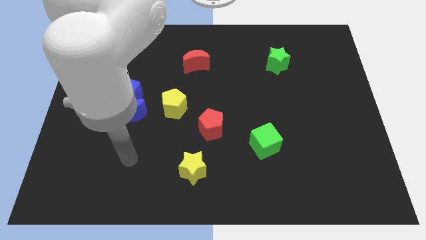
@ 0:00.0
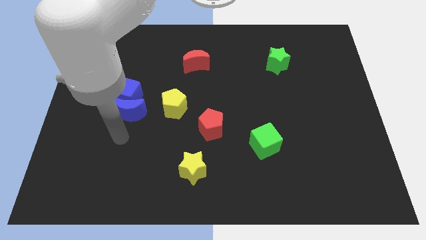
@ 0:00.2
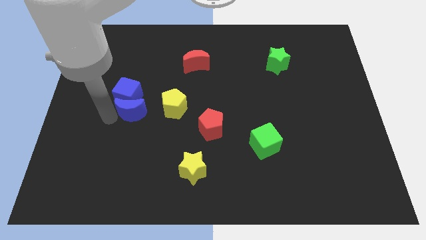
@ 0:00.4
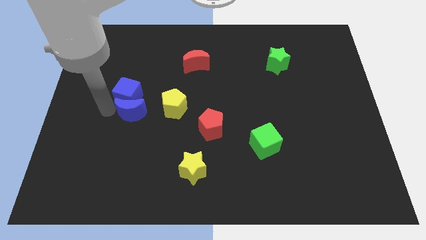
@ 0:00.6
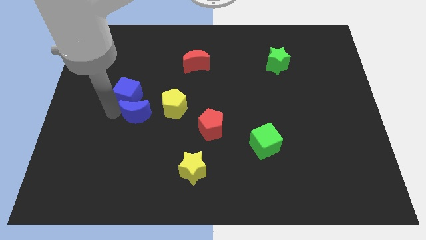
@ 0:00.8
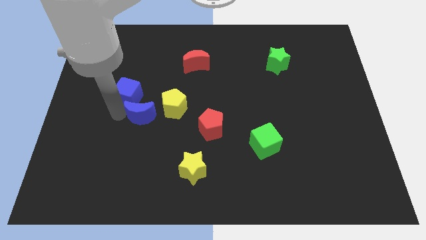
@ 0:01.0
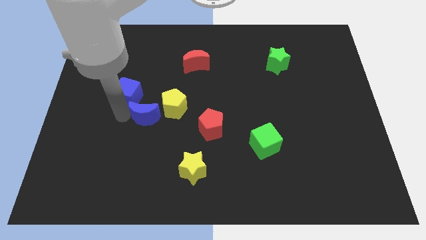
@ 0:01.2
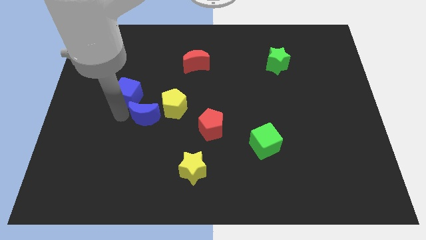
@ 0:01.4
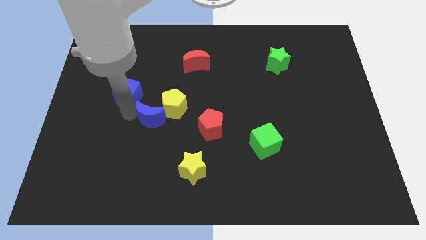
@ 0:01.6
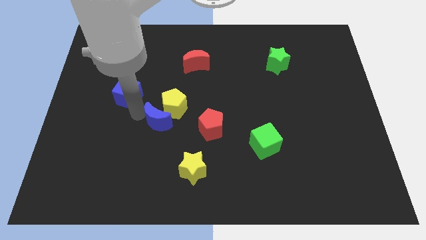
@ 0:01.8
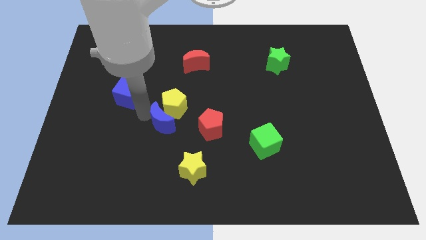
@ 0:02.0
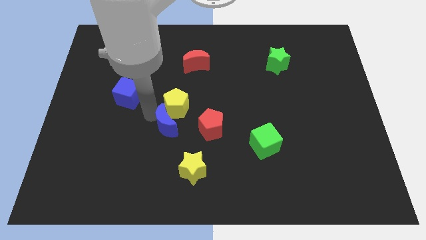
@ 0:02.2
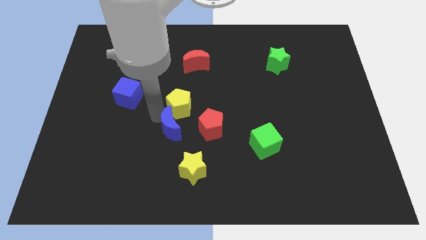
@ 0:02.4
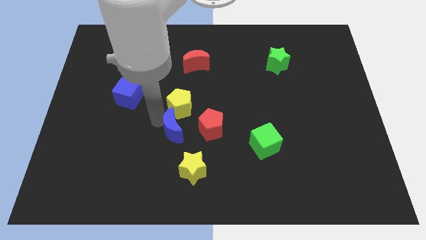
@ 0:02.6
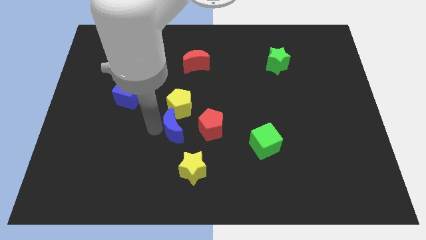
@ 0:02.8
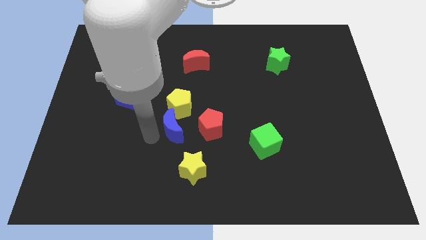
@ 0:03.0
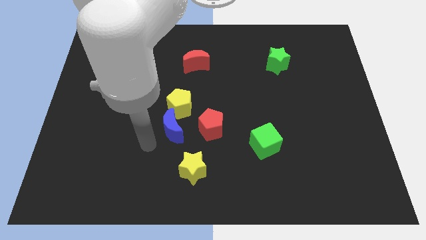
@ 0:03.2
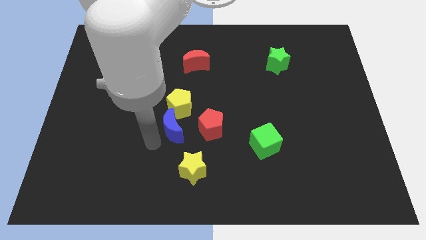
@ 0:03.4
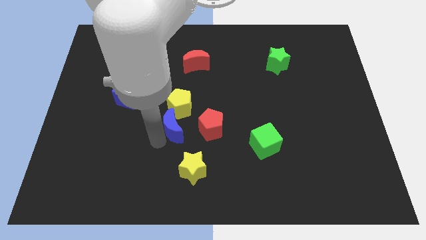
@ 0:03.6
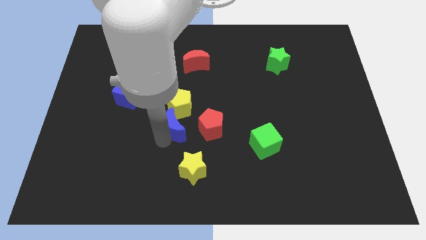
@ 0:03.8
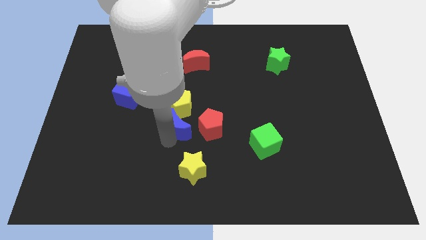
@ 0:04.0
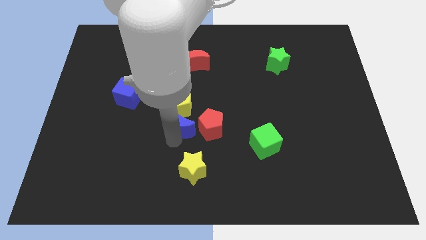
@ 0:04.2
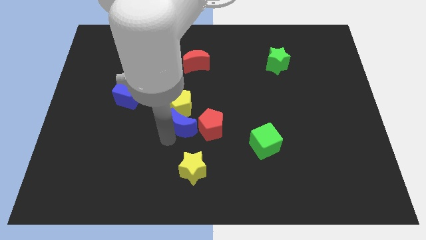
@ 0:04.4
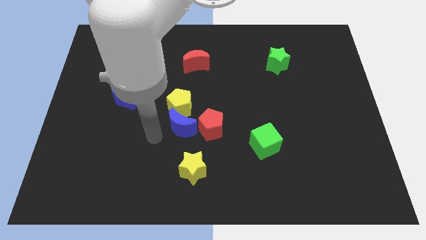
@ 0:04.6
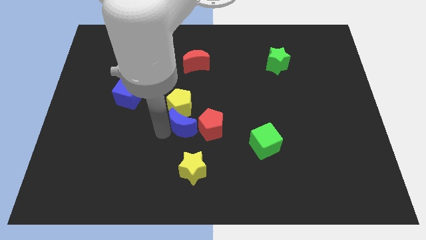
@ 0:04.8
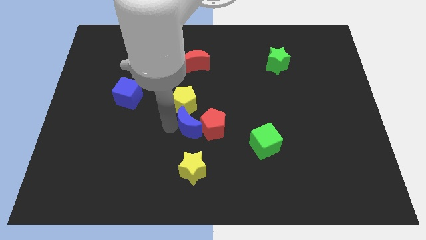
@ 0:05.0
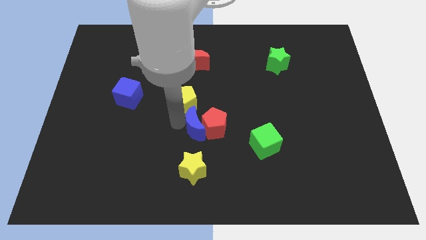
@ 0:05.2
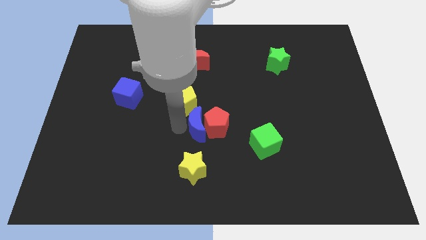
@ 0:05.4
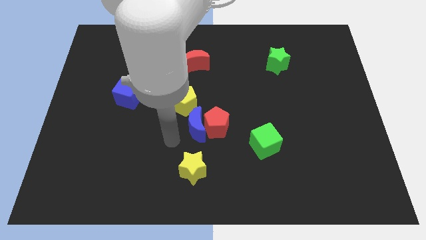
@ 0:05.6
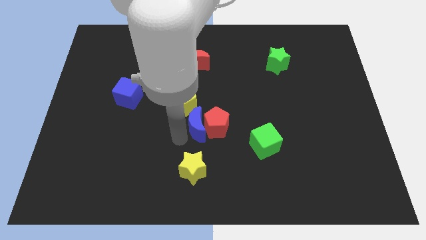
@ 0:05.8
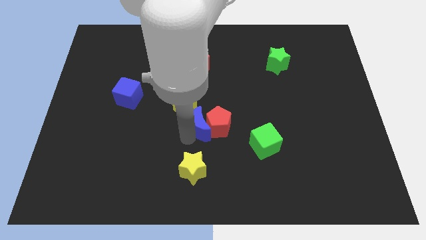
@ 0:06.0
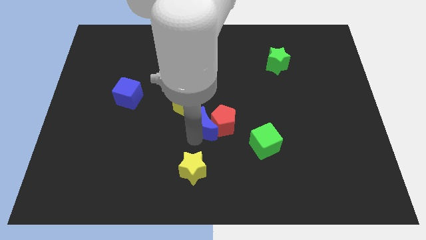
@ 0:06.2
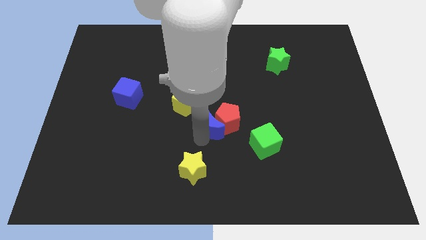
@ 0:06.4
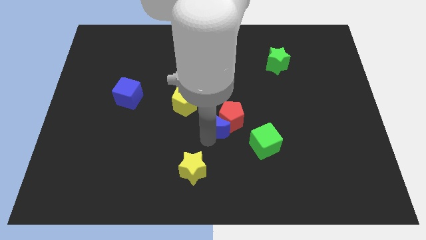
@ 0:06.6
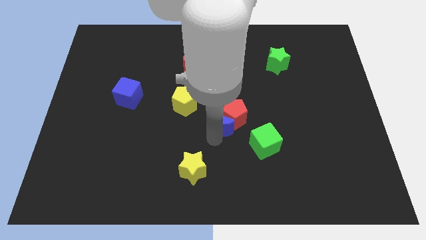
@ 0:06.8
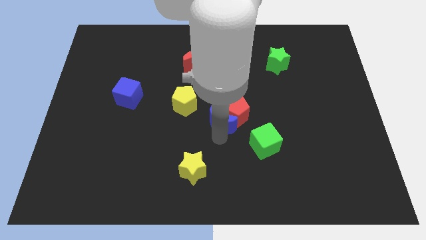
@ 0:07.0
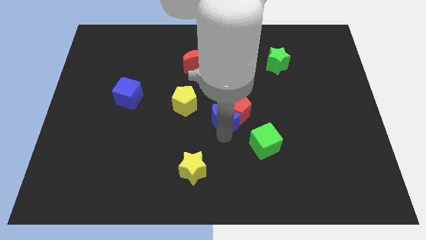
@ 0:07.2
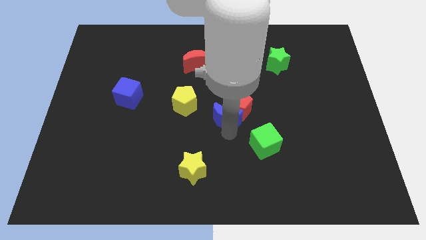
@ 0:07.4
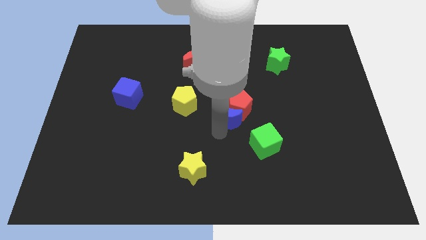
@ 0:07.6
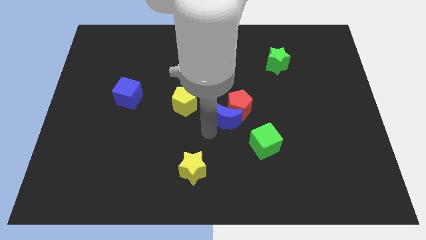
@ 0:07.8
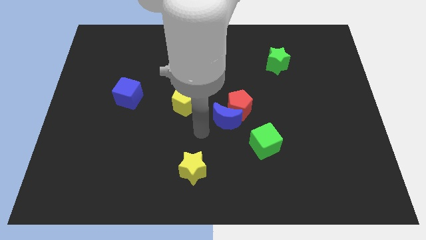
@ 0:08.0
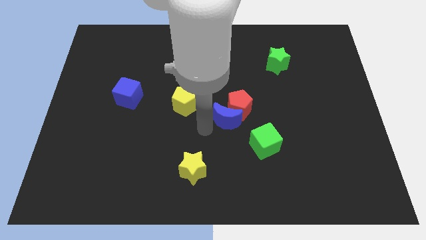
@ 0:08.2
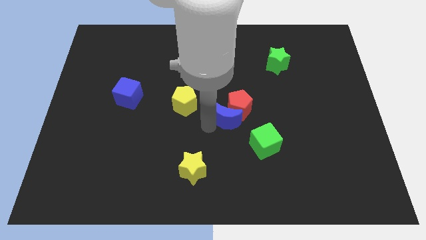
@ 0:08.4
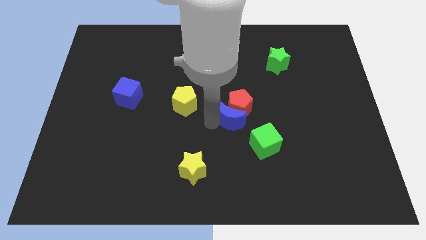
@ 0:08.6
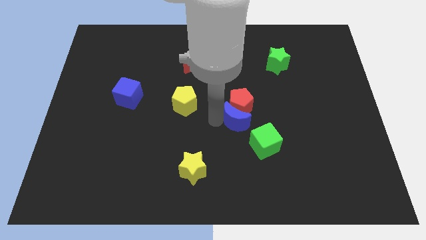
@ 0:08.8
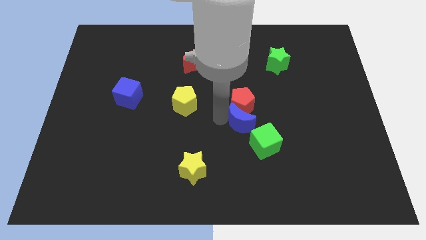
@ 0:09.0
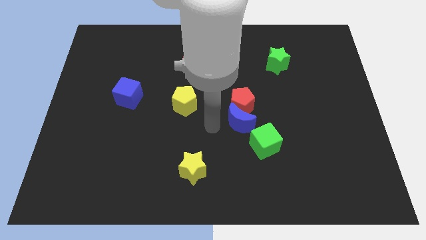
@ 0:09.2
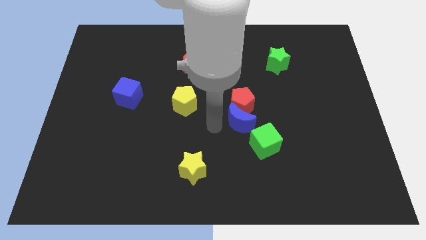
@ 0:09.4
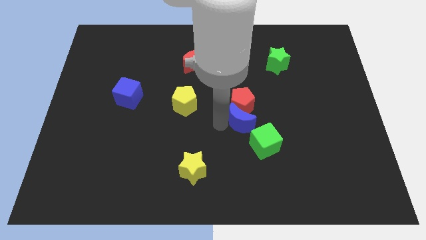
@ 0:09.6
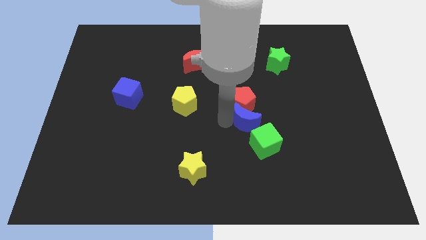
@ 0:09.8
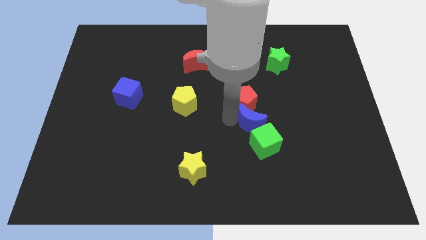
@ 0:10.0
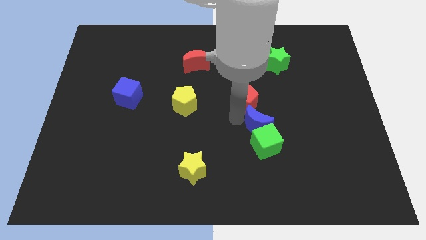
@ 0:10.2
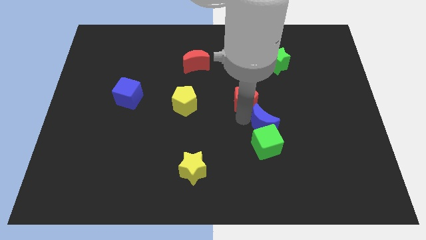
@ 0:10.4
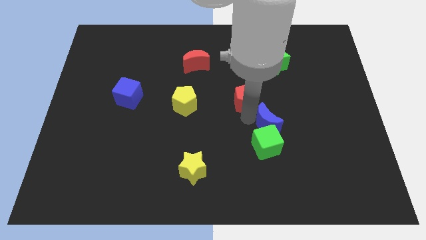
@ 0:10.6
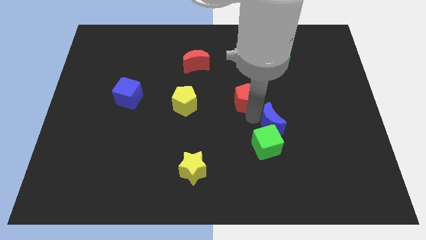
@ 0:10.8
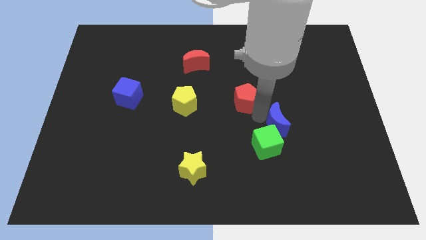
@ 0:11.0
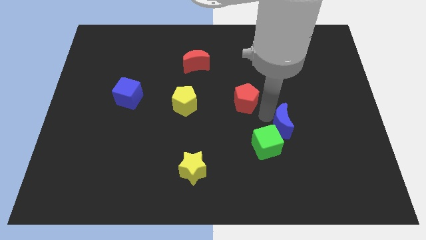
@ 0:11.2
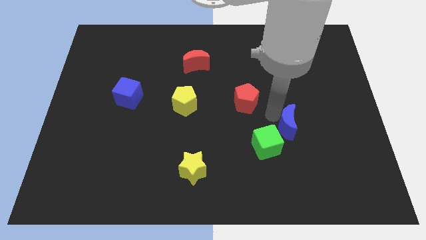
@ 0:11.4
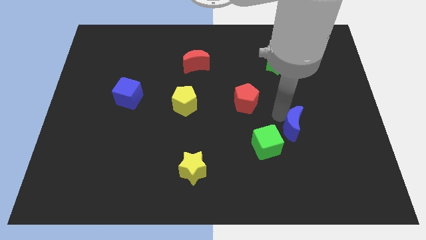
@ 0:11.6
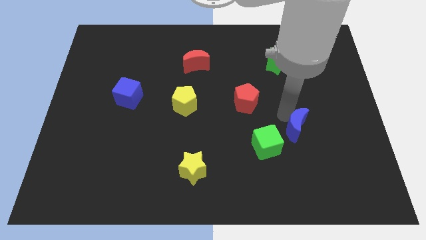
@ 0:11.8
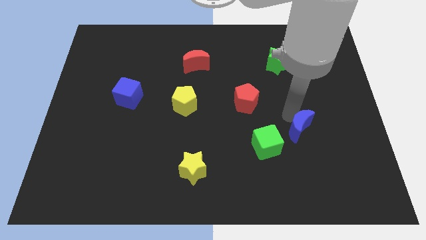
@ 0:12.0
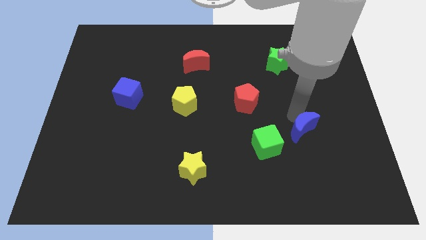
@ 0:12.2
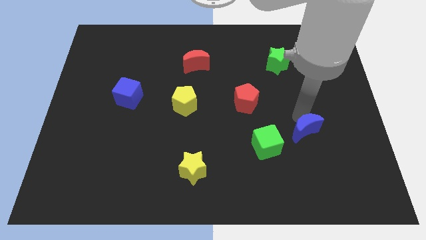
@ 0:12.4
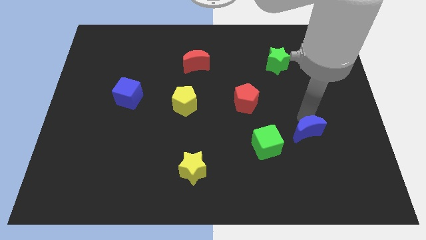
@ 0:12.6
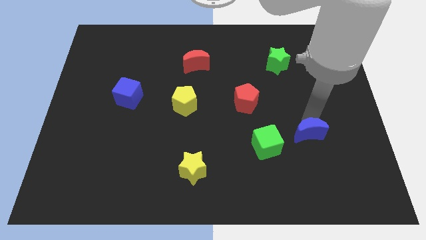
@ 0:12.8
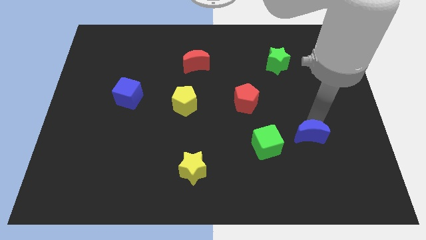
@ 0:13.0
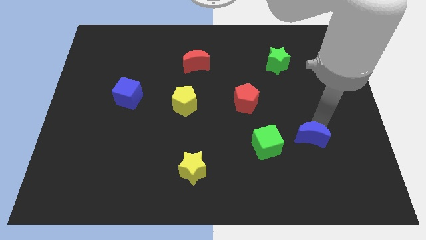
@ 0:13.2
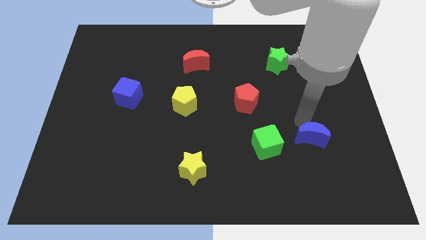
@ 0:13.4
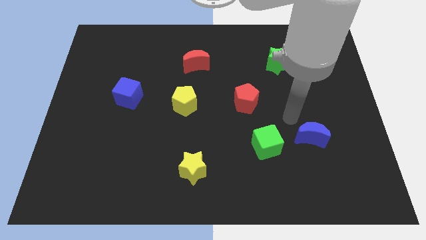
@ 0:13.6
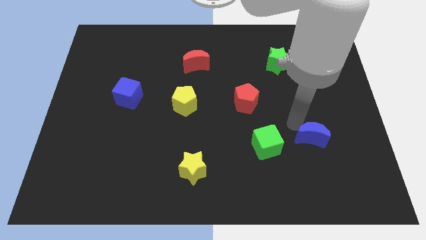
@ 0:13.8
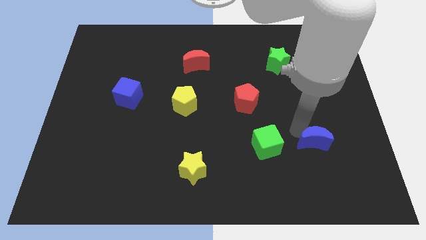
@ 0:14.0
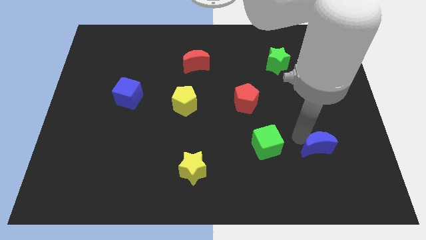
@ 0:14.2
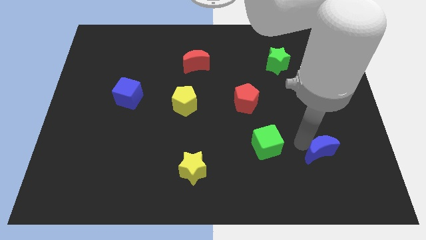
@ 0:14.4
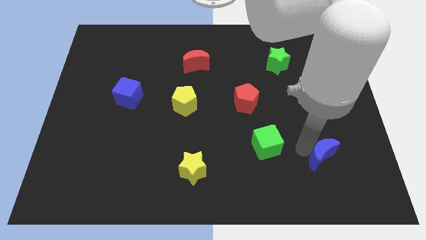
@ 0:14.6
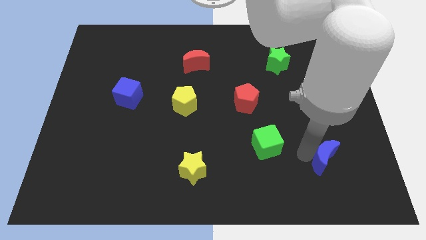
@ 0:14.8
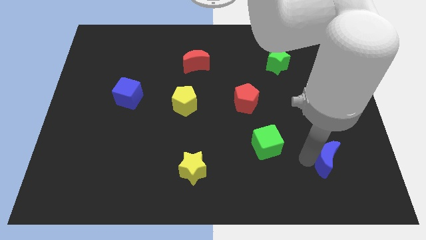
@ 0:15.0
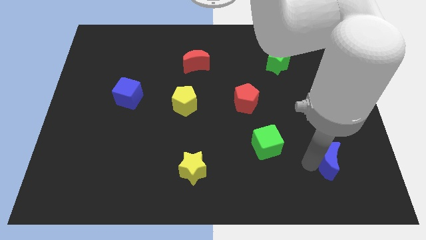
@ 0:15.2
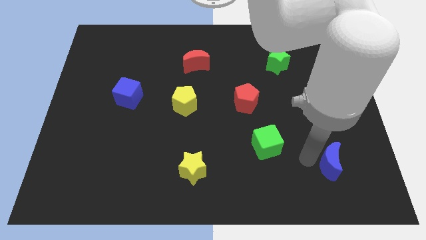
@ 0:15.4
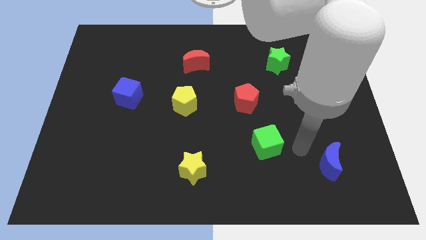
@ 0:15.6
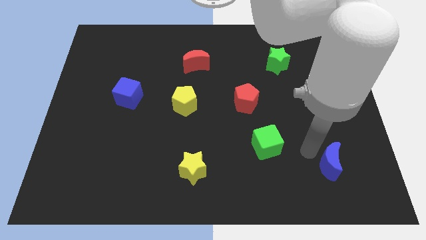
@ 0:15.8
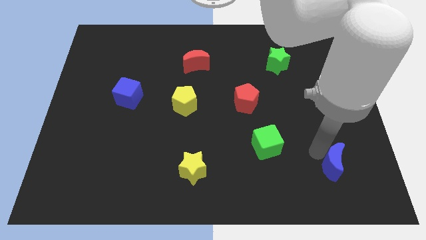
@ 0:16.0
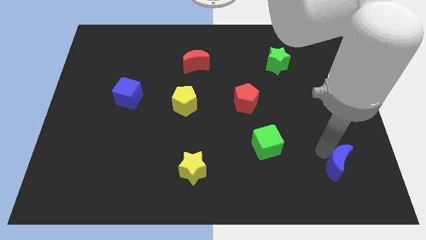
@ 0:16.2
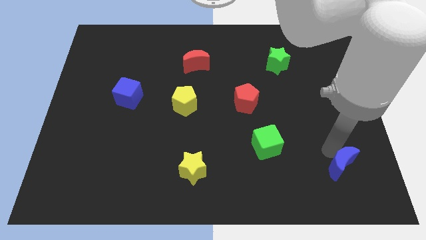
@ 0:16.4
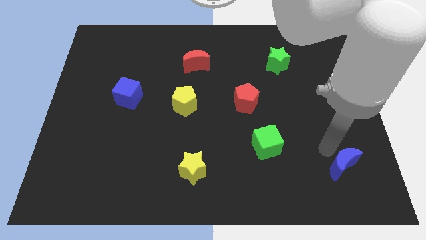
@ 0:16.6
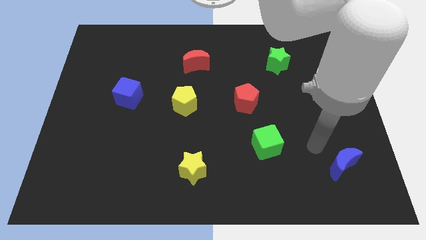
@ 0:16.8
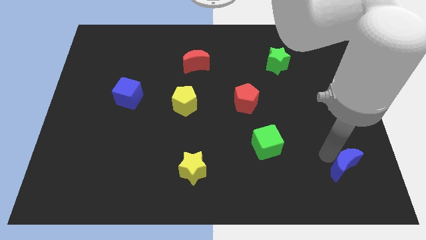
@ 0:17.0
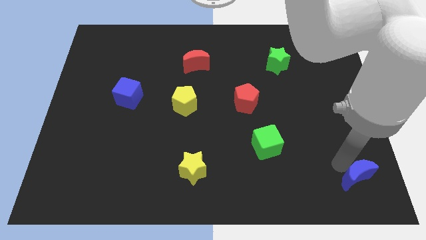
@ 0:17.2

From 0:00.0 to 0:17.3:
move the blue moon to the bottom right
